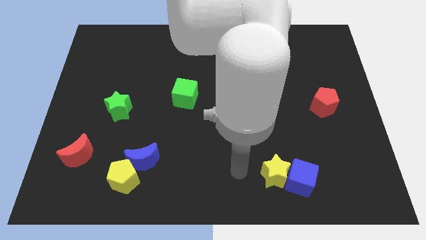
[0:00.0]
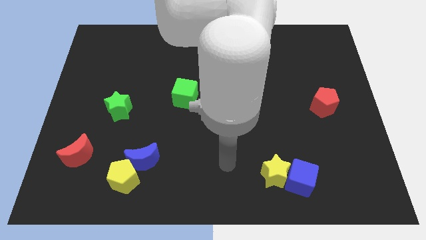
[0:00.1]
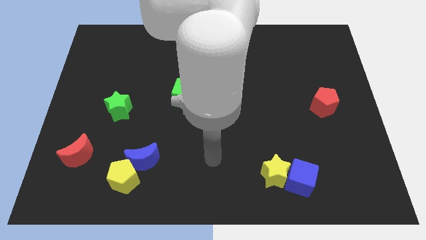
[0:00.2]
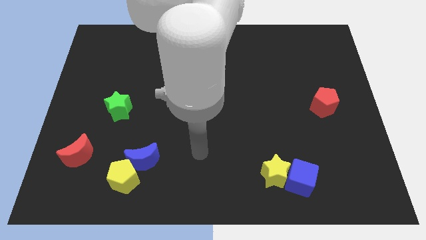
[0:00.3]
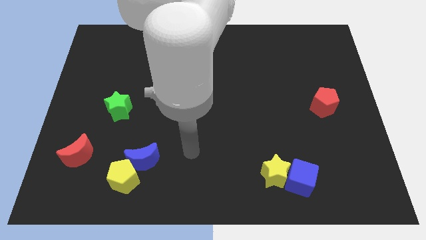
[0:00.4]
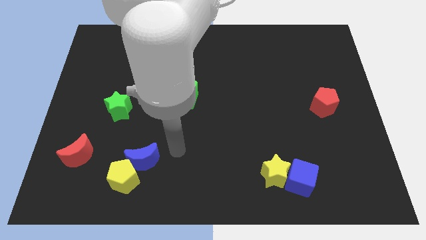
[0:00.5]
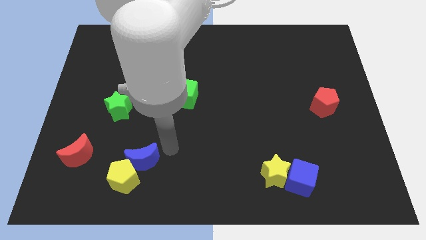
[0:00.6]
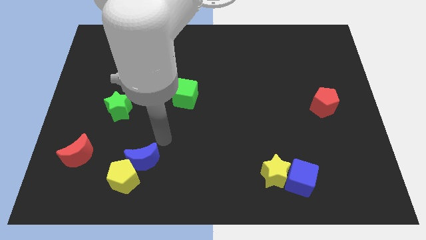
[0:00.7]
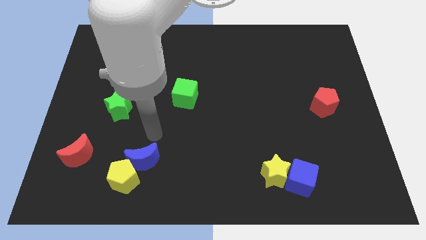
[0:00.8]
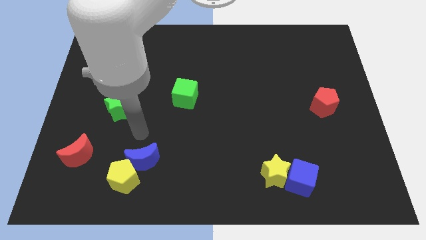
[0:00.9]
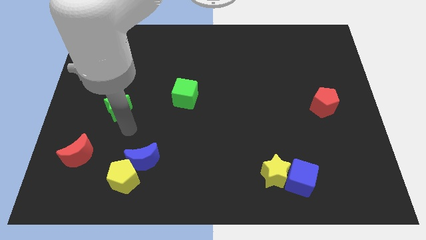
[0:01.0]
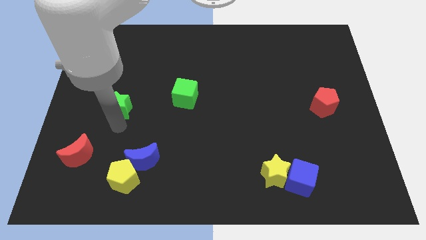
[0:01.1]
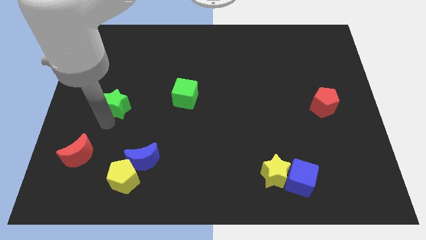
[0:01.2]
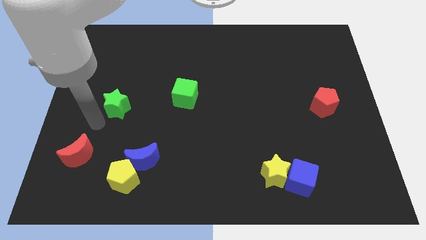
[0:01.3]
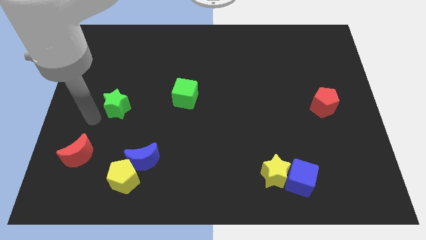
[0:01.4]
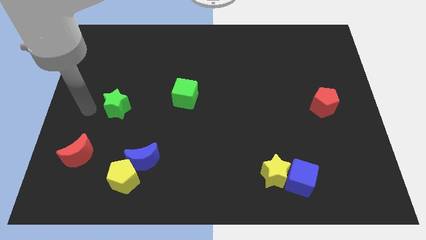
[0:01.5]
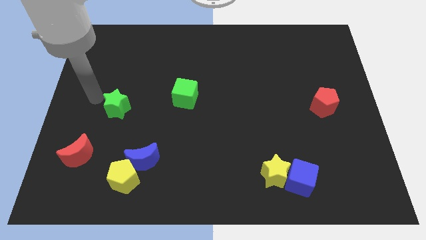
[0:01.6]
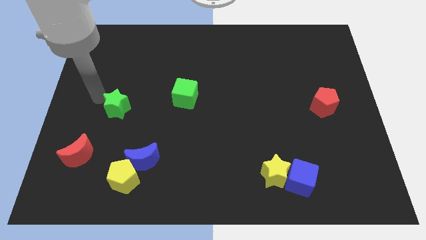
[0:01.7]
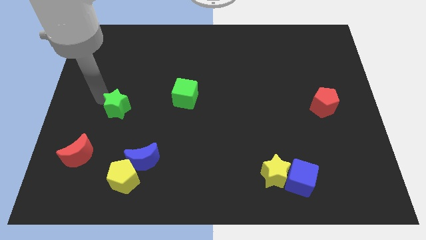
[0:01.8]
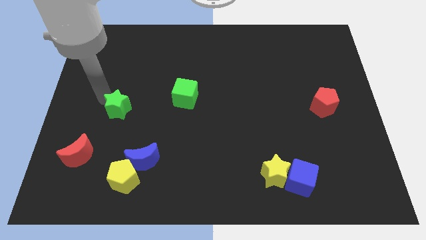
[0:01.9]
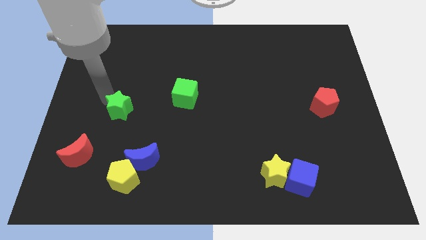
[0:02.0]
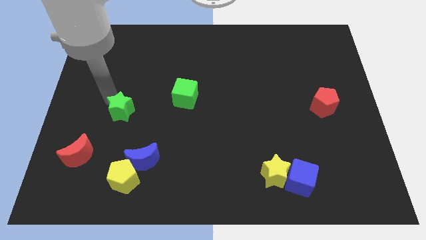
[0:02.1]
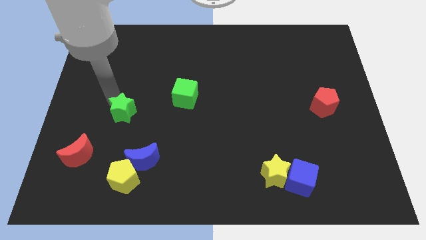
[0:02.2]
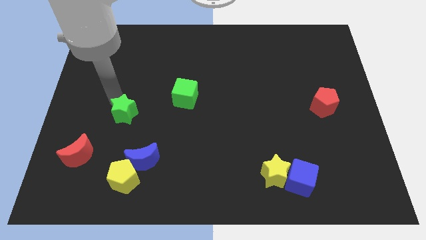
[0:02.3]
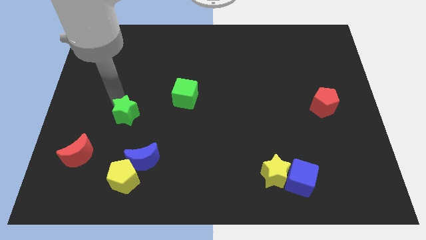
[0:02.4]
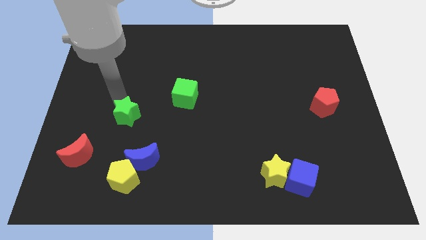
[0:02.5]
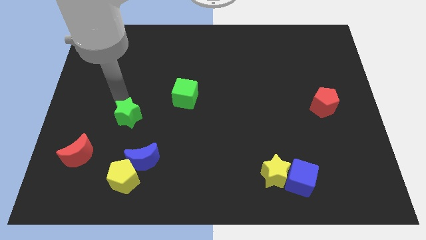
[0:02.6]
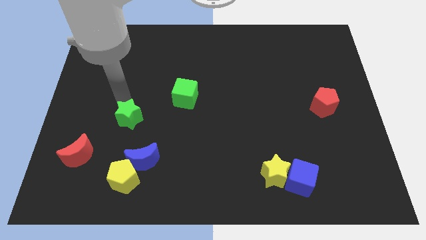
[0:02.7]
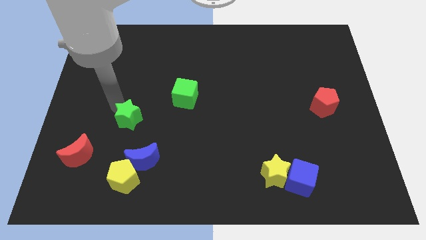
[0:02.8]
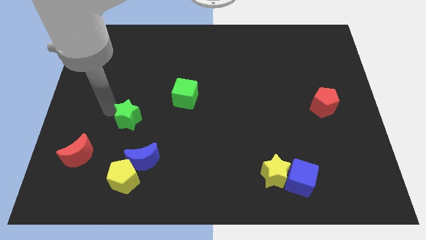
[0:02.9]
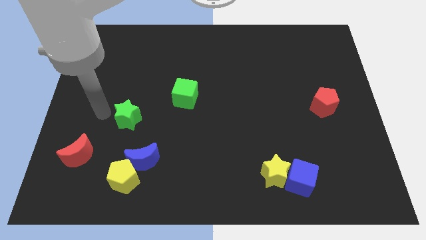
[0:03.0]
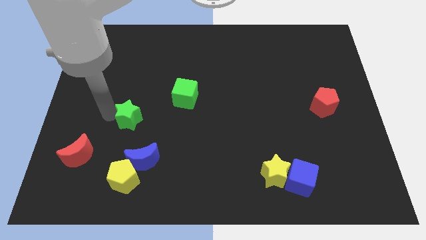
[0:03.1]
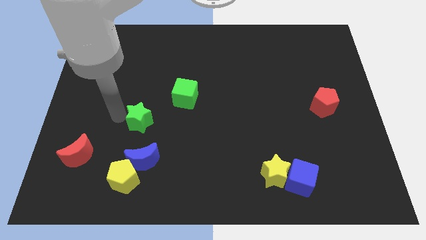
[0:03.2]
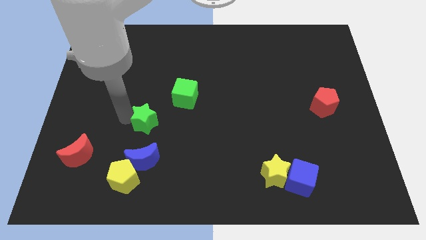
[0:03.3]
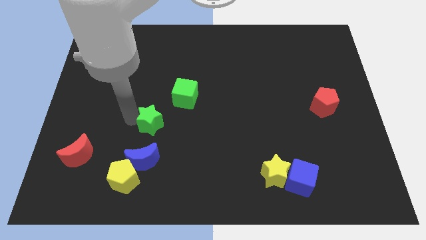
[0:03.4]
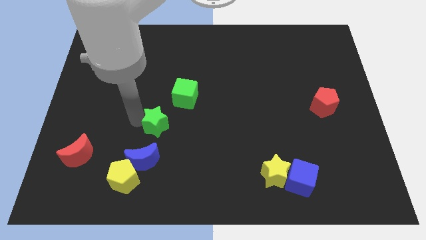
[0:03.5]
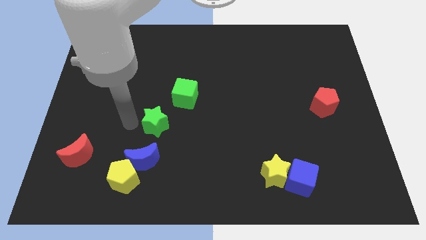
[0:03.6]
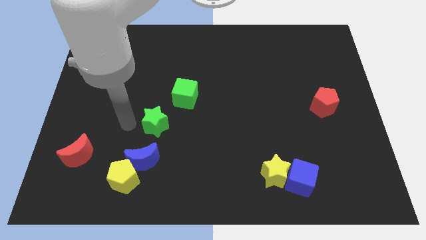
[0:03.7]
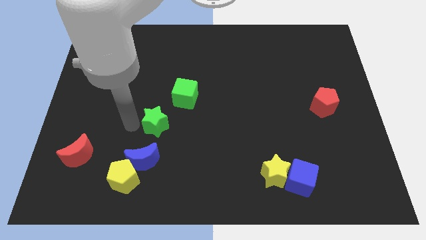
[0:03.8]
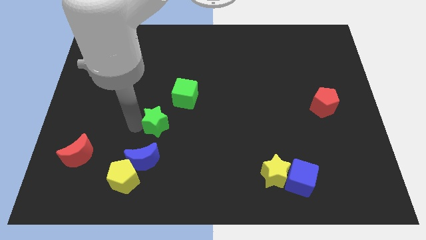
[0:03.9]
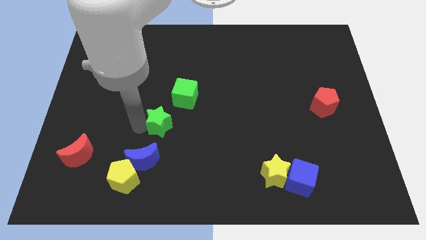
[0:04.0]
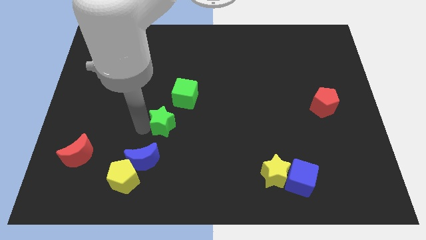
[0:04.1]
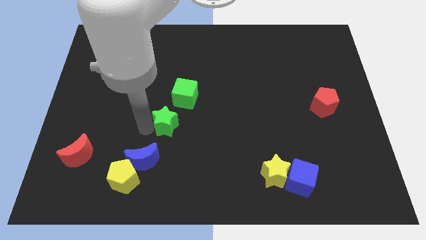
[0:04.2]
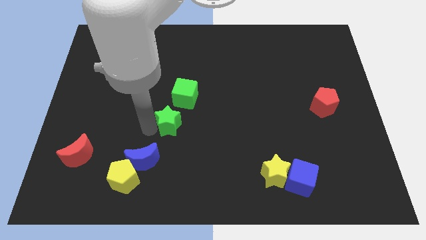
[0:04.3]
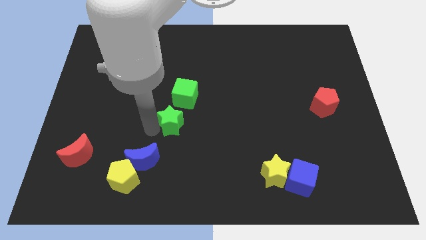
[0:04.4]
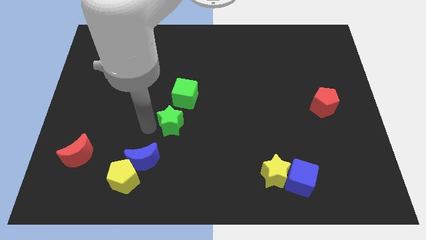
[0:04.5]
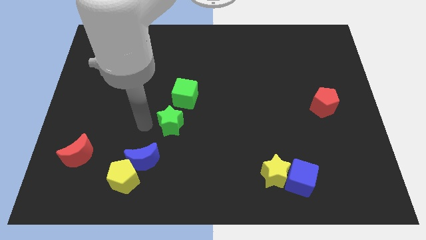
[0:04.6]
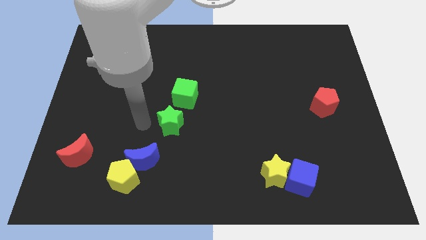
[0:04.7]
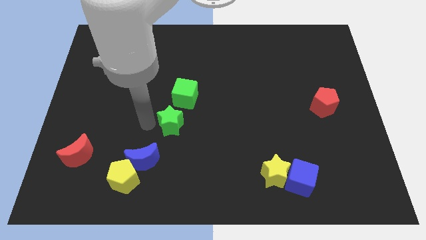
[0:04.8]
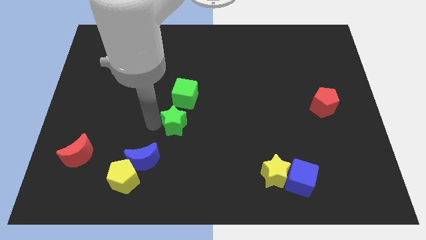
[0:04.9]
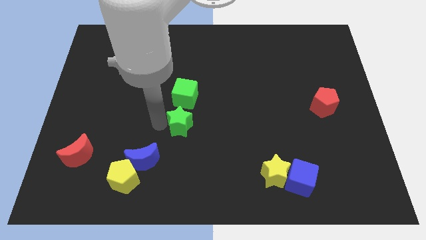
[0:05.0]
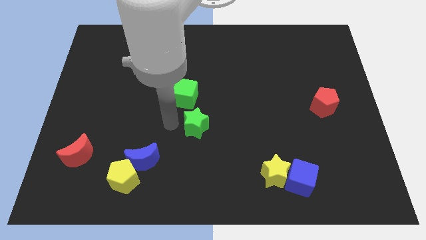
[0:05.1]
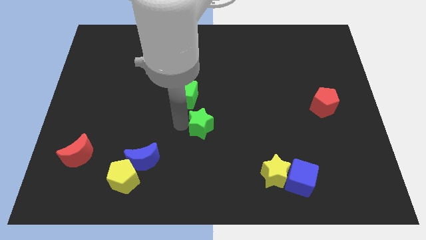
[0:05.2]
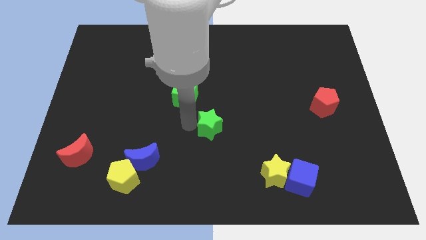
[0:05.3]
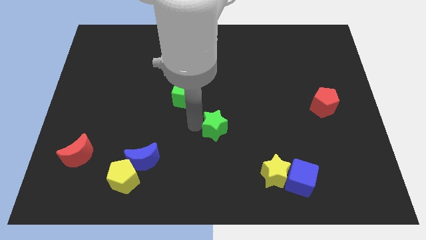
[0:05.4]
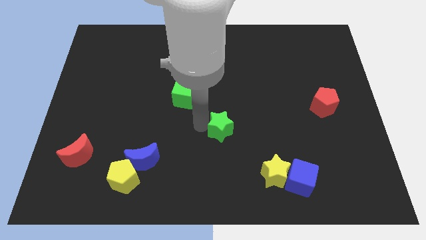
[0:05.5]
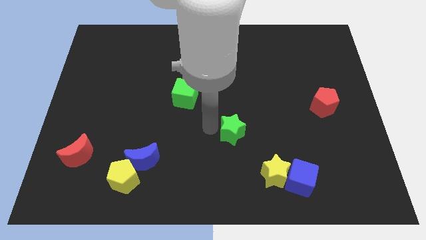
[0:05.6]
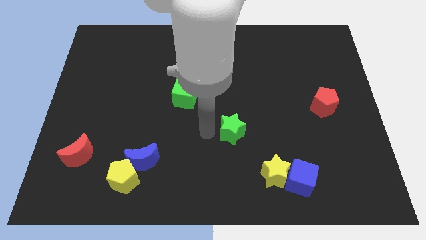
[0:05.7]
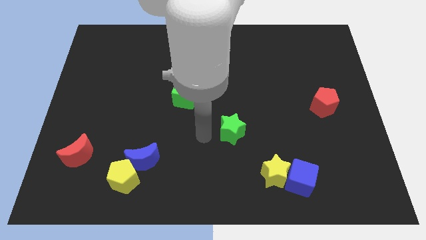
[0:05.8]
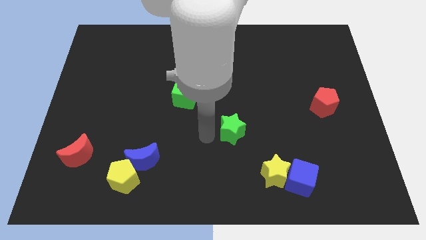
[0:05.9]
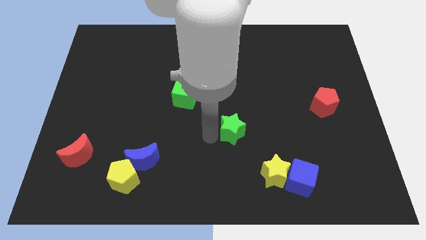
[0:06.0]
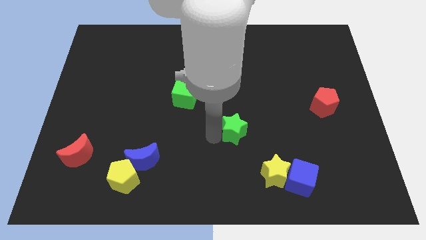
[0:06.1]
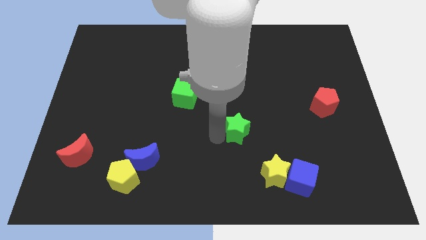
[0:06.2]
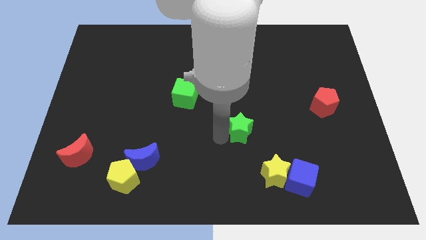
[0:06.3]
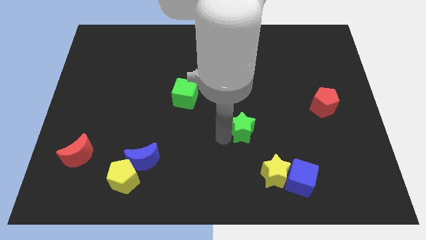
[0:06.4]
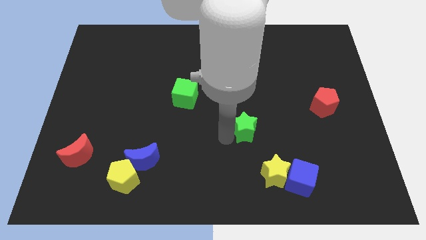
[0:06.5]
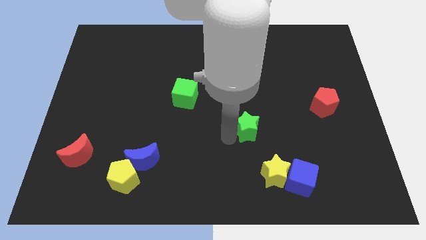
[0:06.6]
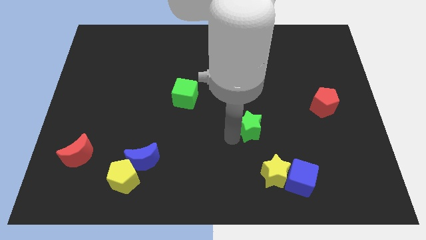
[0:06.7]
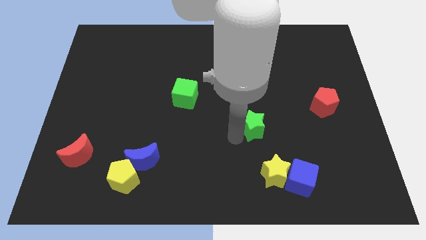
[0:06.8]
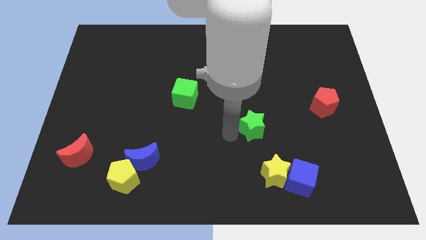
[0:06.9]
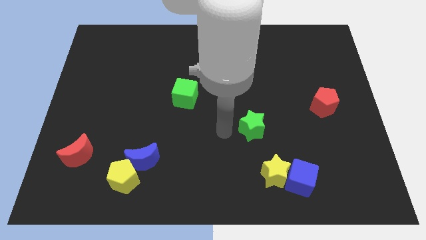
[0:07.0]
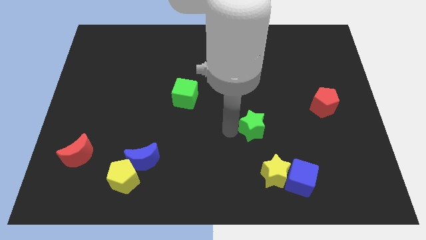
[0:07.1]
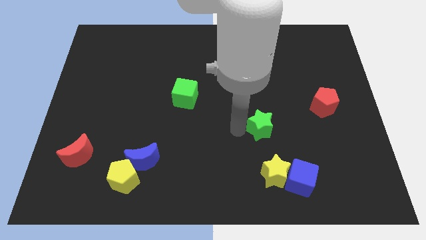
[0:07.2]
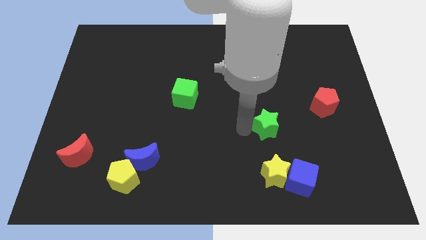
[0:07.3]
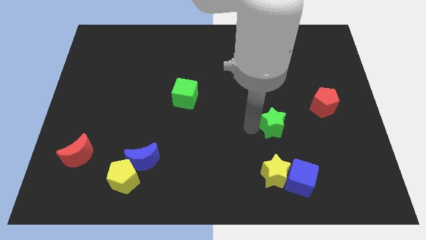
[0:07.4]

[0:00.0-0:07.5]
slide the green star to the top of the blue cube
